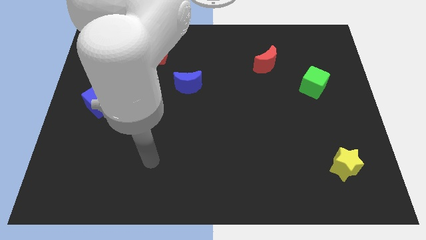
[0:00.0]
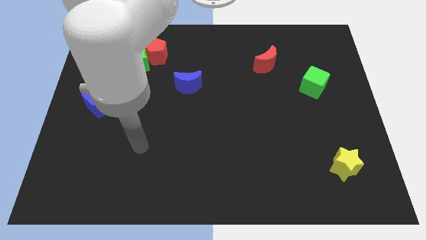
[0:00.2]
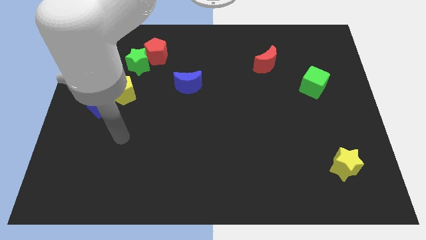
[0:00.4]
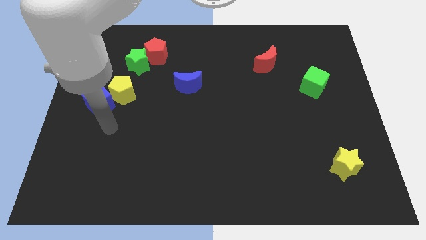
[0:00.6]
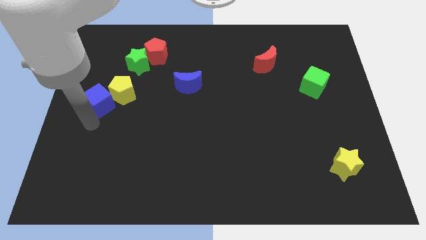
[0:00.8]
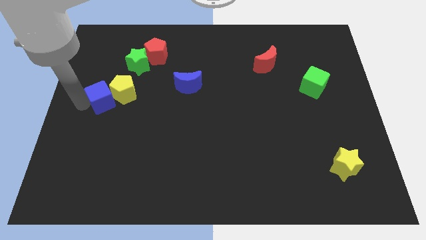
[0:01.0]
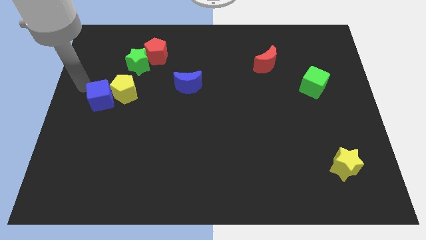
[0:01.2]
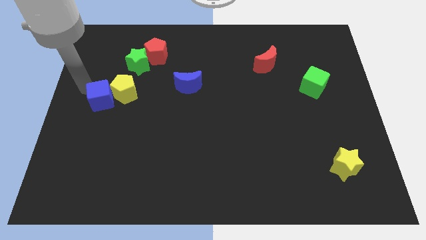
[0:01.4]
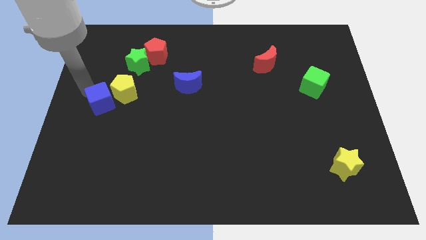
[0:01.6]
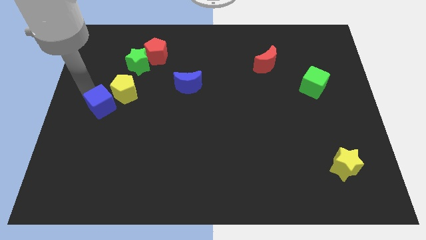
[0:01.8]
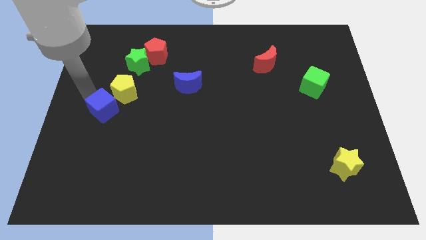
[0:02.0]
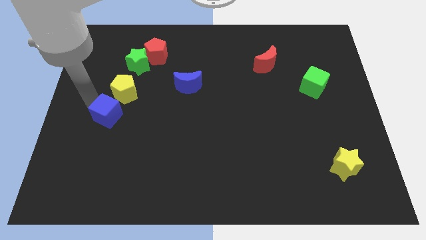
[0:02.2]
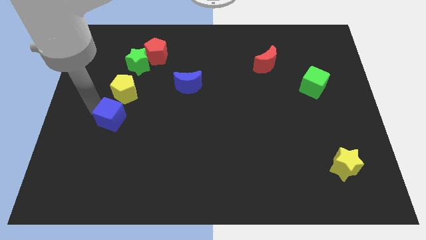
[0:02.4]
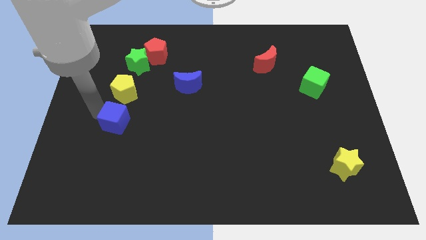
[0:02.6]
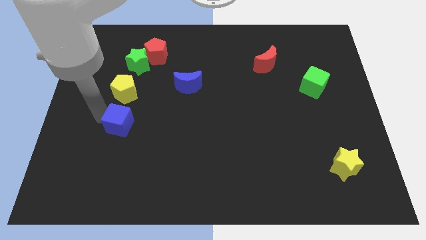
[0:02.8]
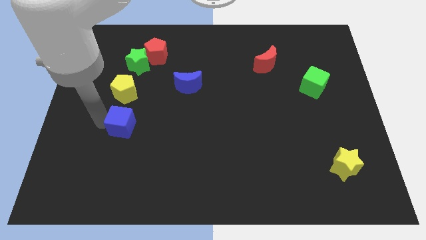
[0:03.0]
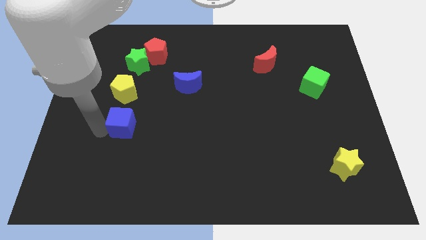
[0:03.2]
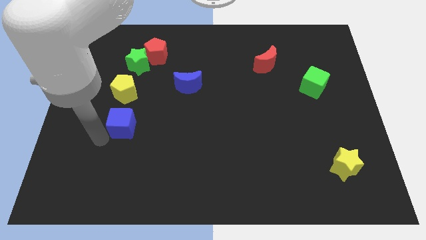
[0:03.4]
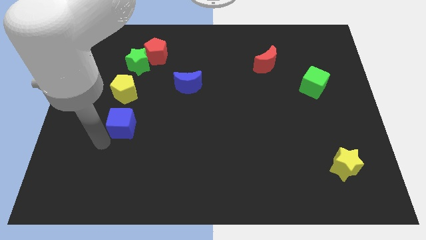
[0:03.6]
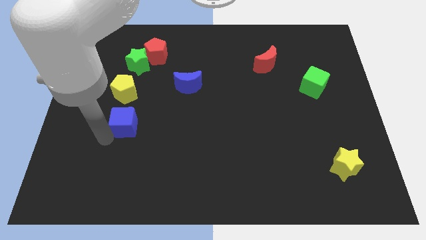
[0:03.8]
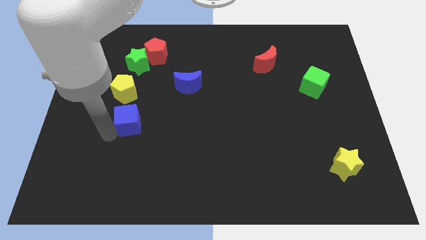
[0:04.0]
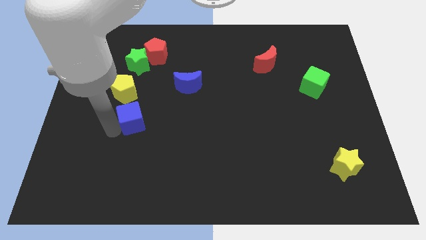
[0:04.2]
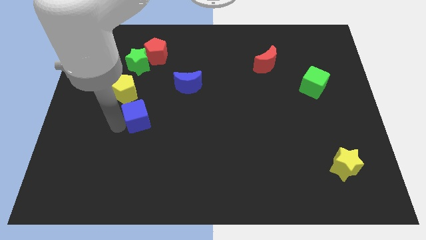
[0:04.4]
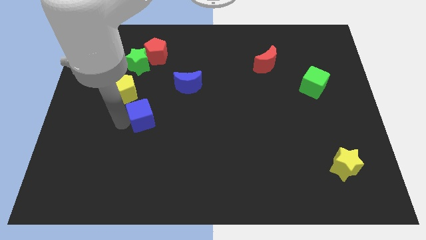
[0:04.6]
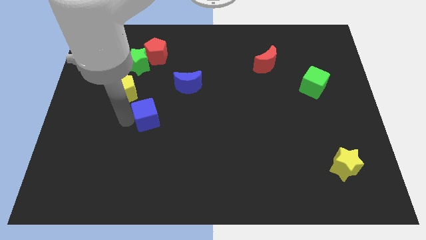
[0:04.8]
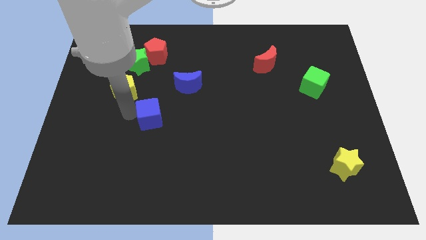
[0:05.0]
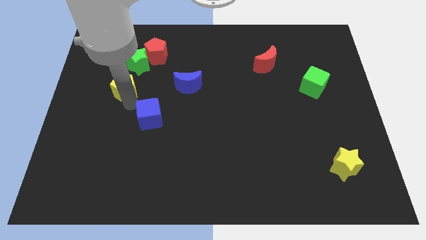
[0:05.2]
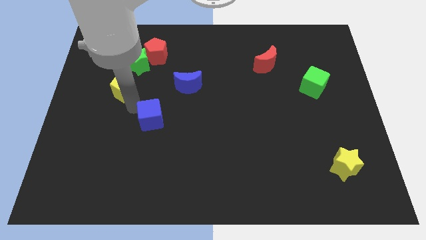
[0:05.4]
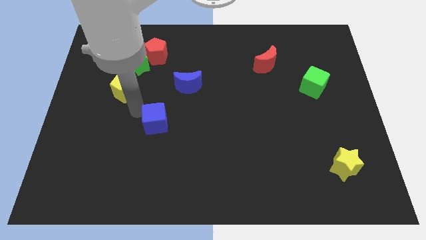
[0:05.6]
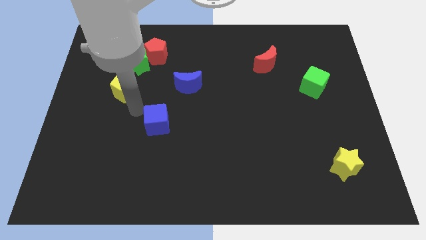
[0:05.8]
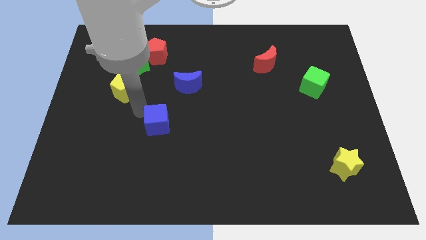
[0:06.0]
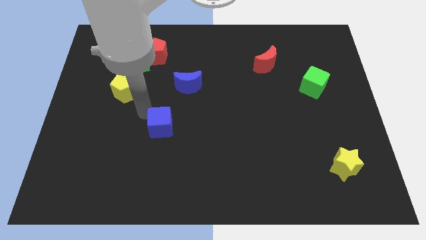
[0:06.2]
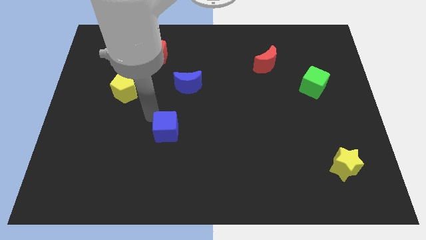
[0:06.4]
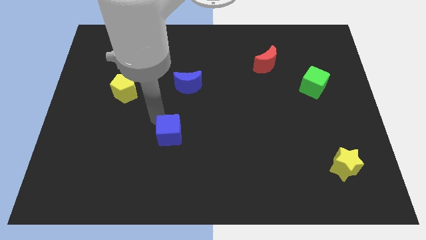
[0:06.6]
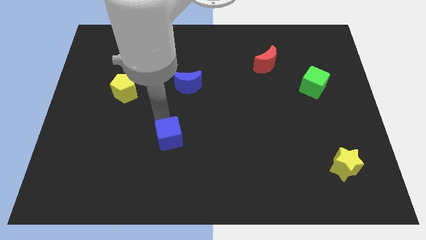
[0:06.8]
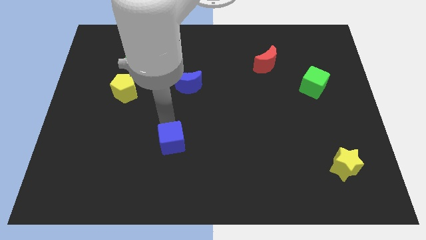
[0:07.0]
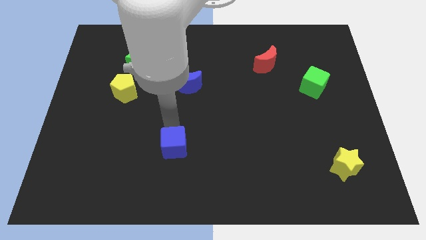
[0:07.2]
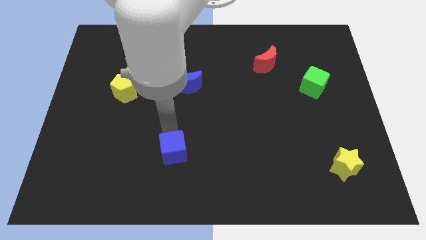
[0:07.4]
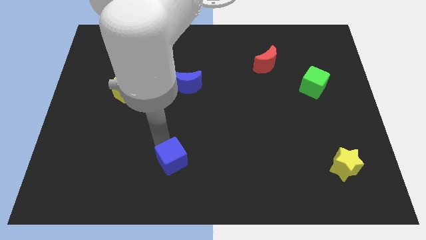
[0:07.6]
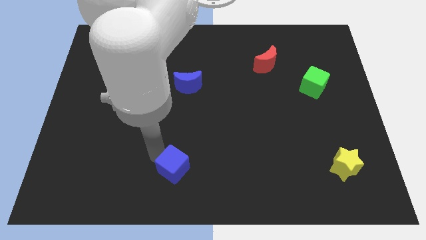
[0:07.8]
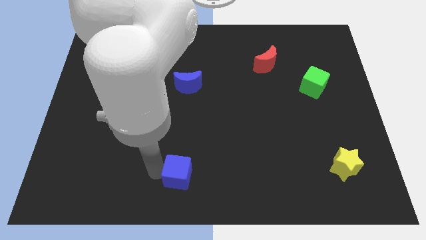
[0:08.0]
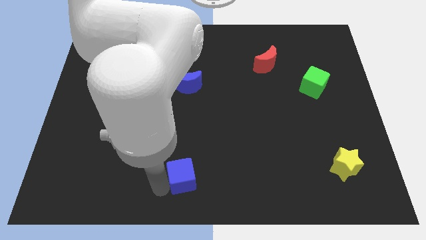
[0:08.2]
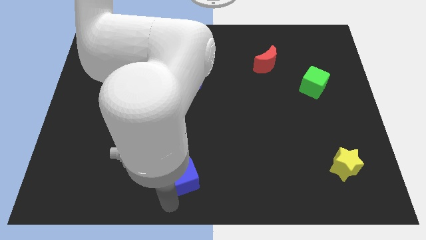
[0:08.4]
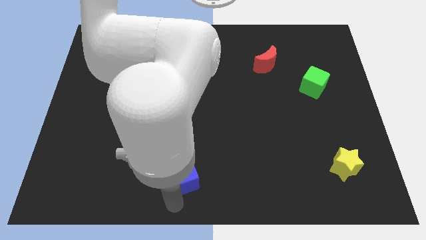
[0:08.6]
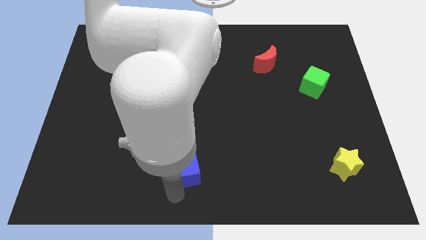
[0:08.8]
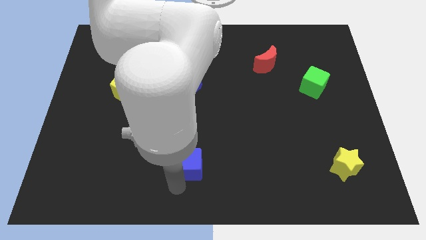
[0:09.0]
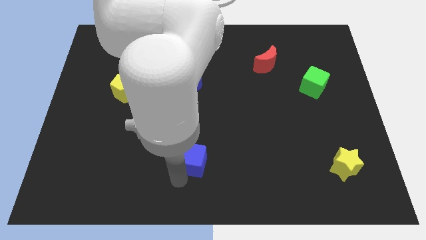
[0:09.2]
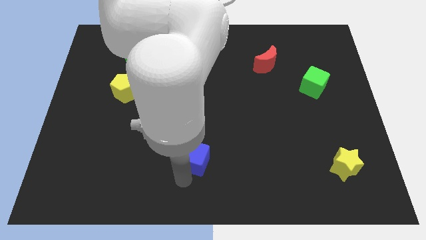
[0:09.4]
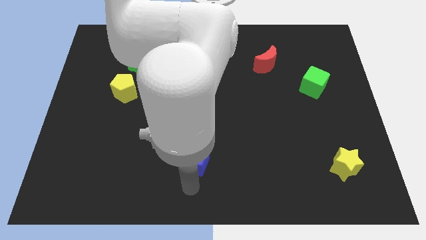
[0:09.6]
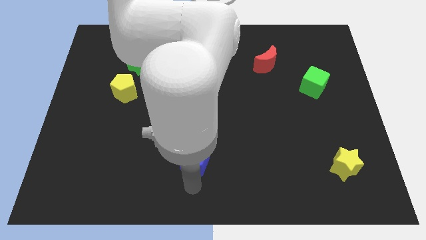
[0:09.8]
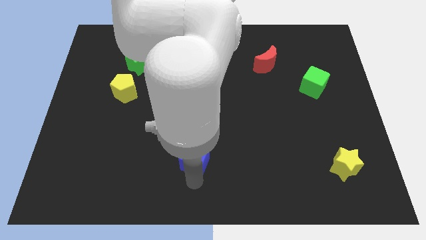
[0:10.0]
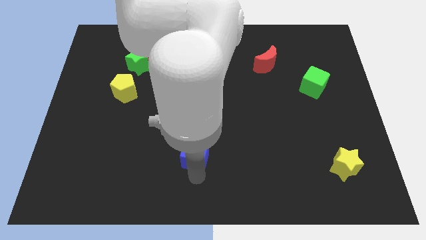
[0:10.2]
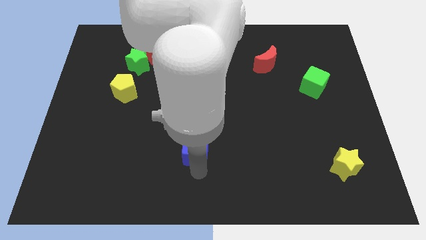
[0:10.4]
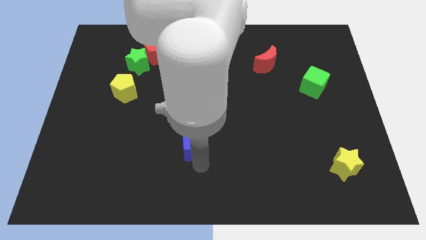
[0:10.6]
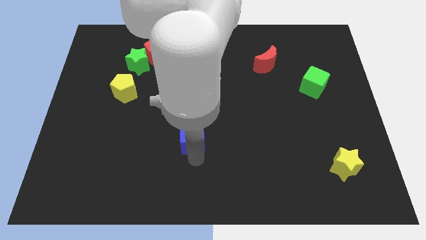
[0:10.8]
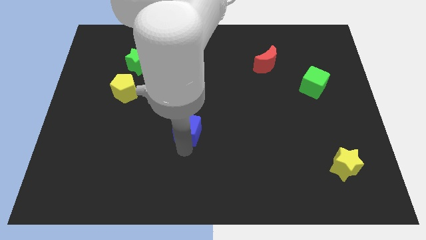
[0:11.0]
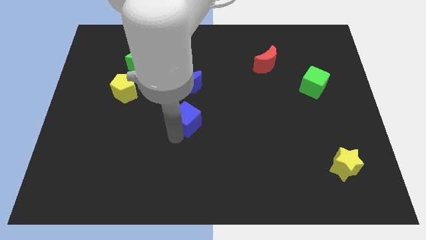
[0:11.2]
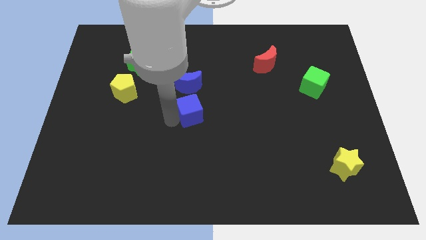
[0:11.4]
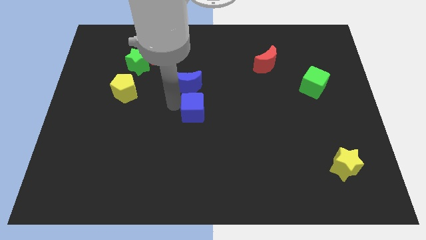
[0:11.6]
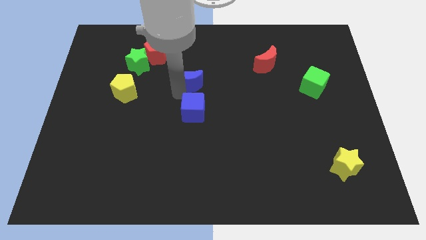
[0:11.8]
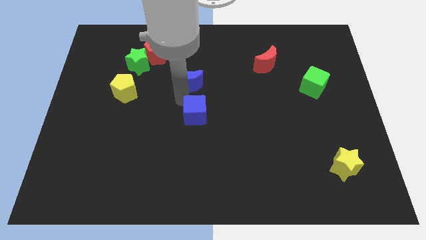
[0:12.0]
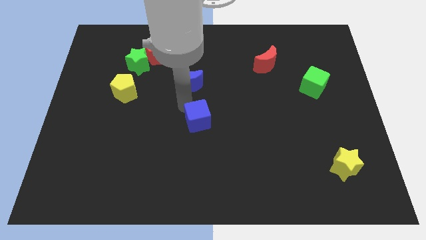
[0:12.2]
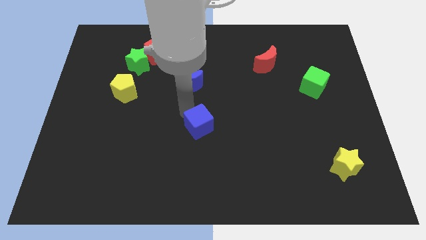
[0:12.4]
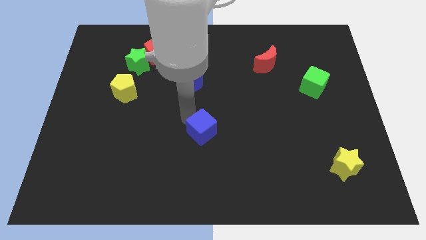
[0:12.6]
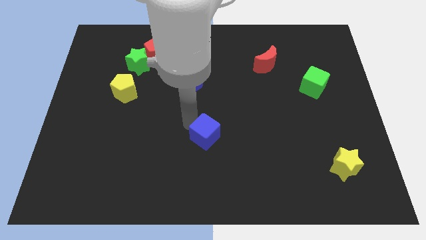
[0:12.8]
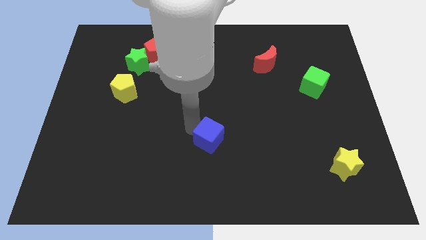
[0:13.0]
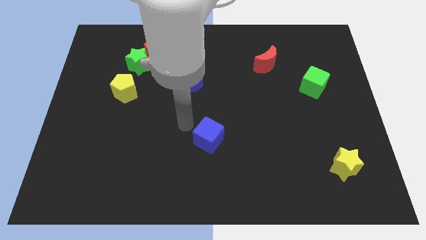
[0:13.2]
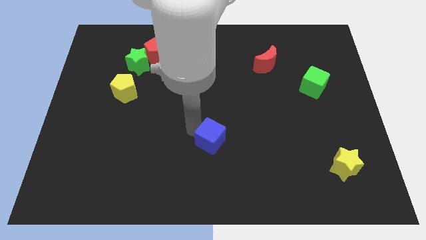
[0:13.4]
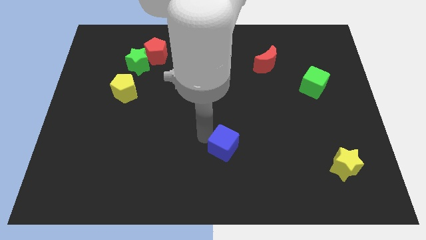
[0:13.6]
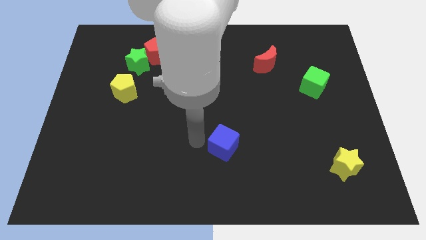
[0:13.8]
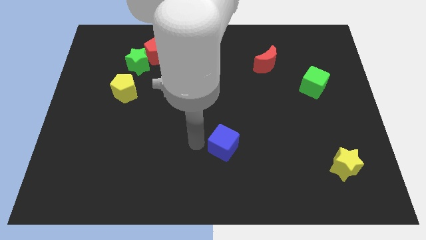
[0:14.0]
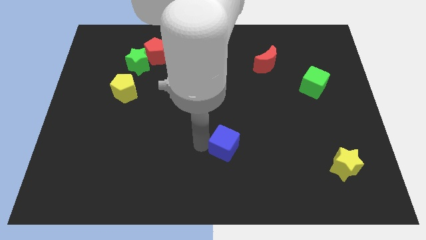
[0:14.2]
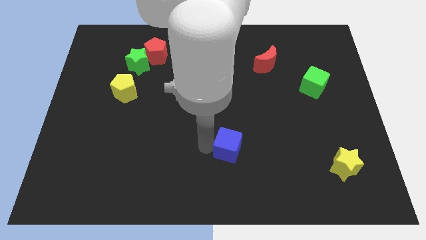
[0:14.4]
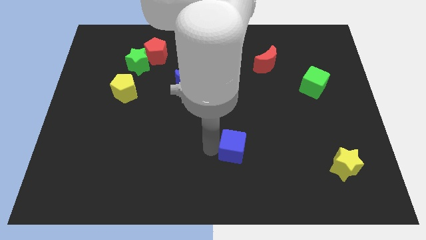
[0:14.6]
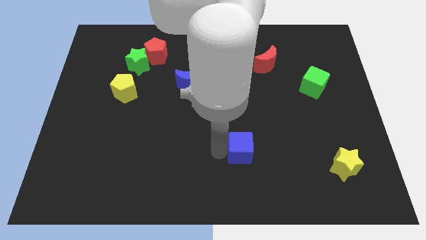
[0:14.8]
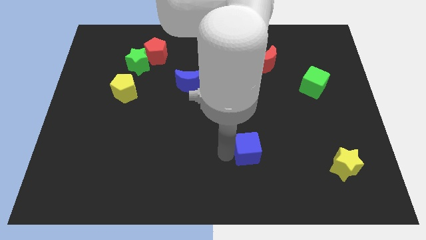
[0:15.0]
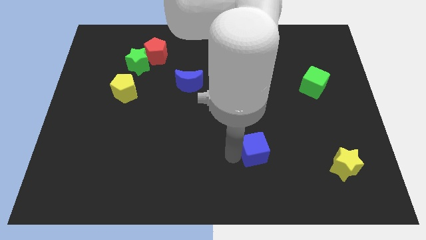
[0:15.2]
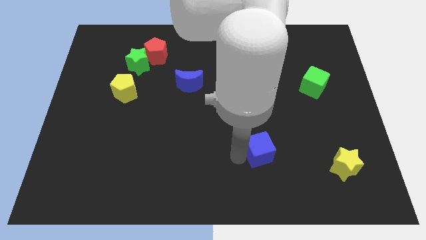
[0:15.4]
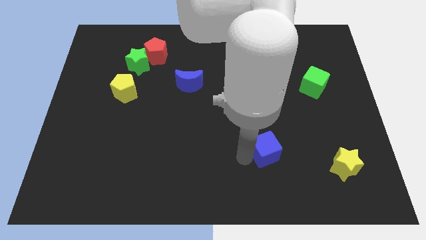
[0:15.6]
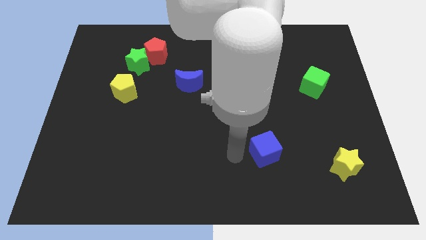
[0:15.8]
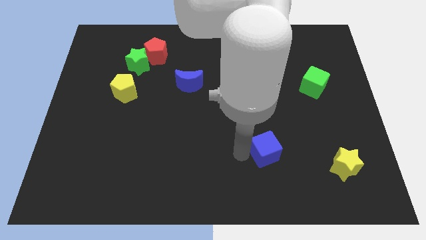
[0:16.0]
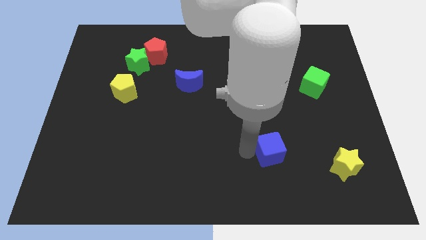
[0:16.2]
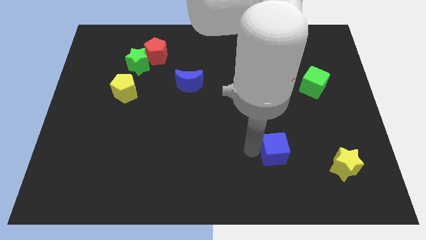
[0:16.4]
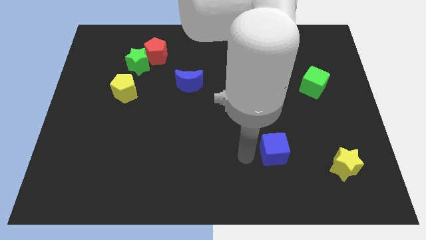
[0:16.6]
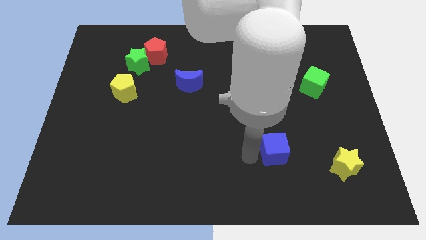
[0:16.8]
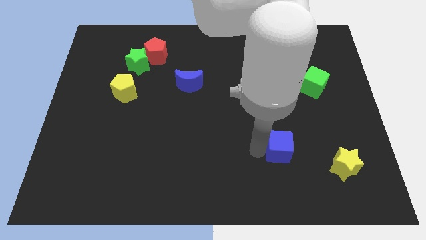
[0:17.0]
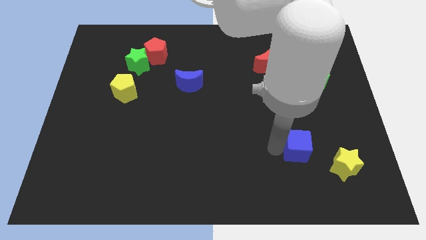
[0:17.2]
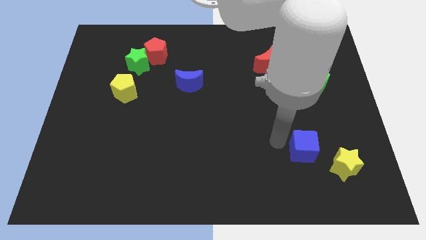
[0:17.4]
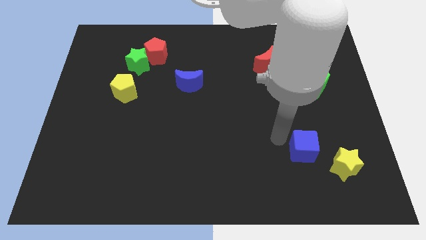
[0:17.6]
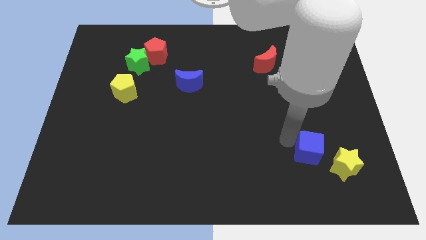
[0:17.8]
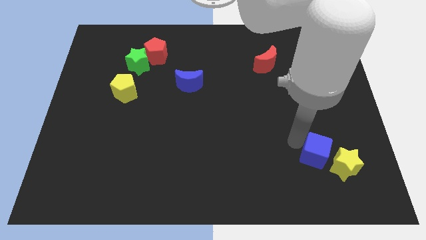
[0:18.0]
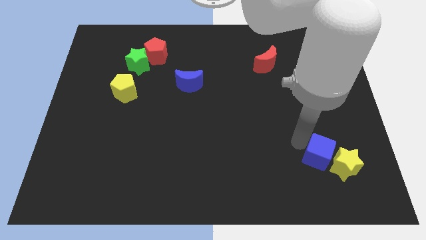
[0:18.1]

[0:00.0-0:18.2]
push the blue cube close to the yellow star
